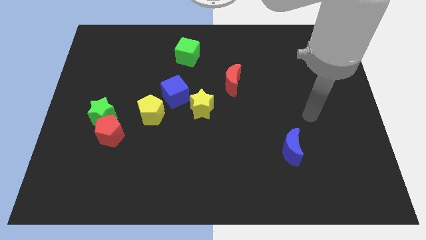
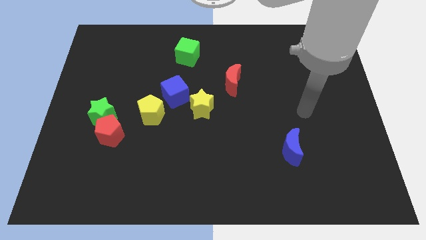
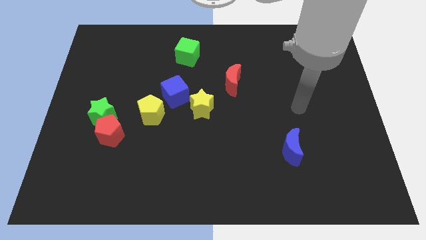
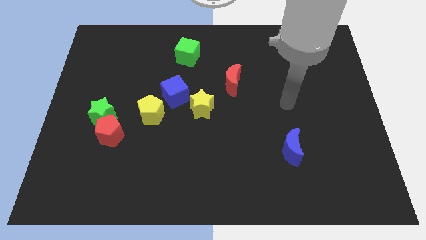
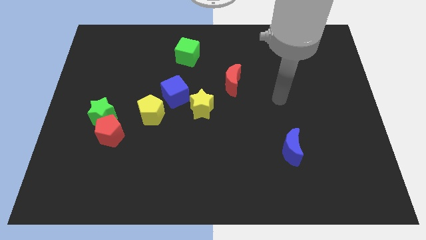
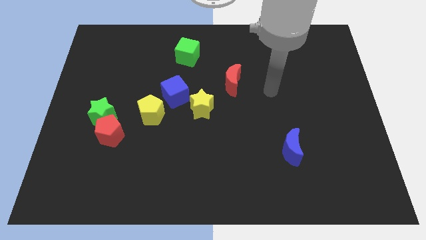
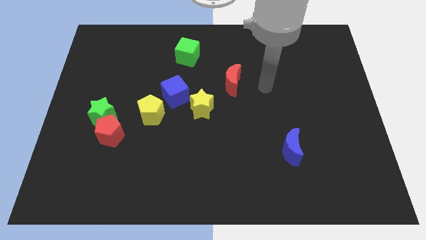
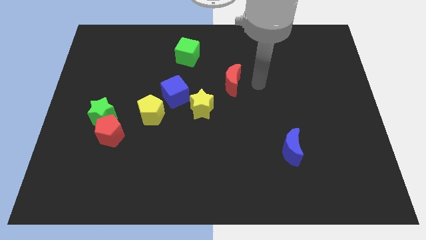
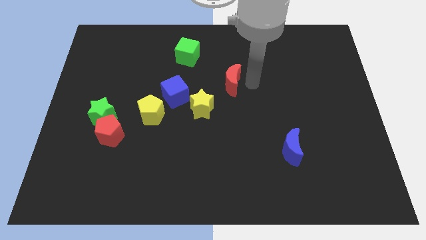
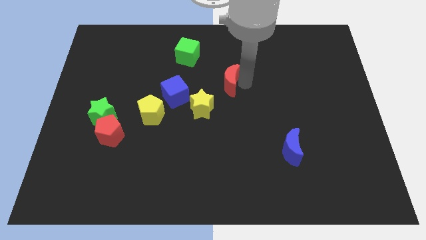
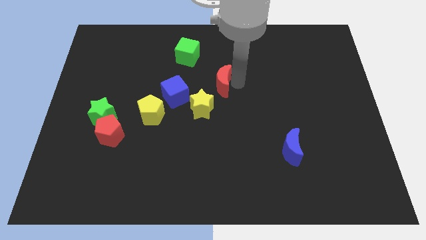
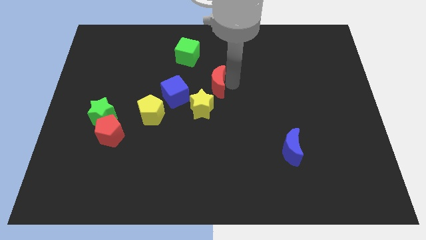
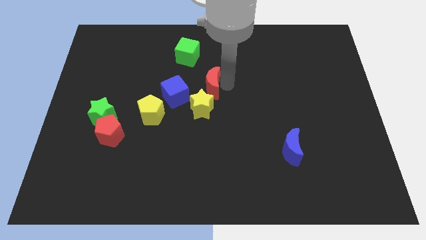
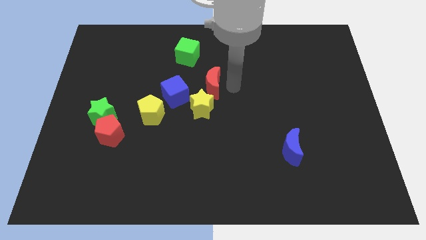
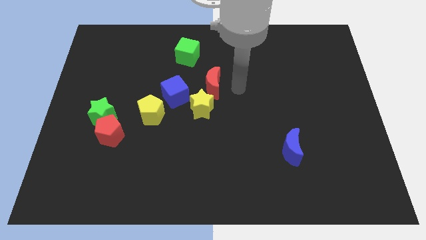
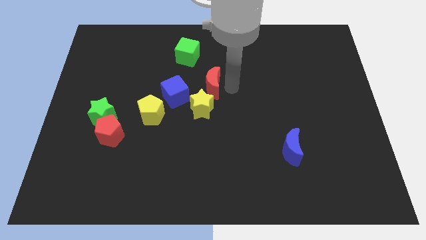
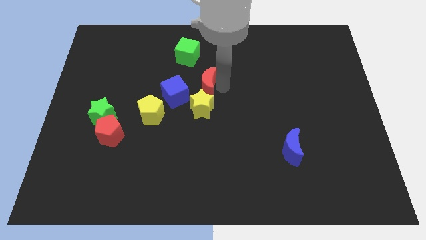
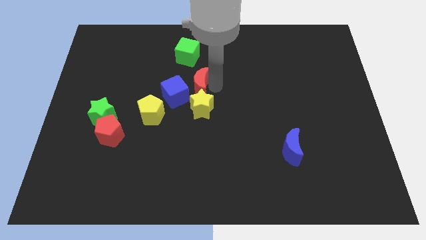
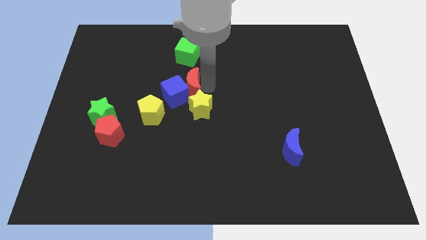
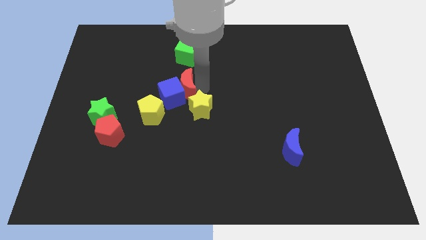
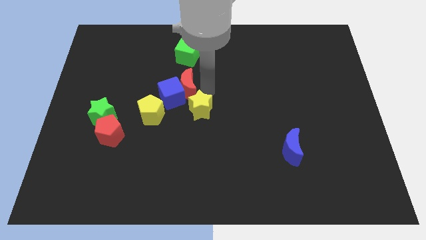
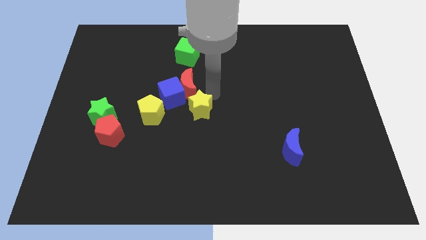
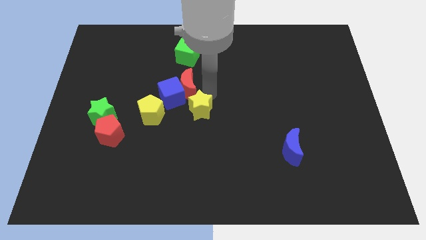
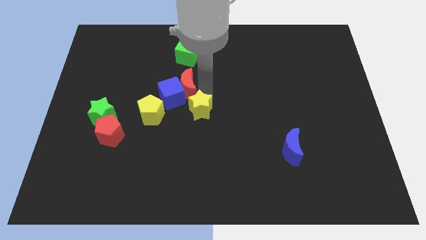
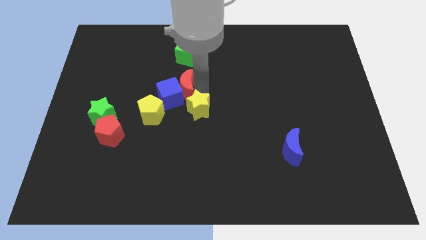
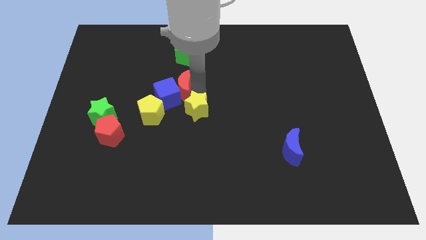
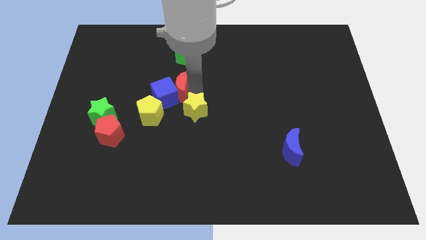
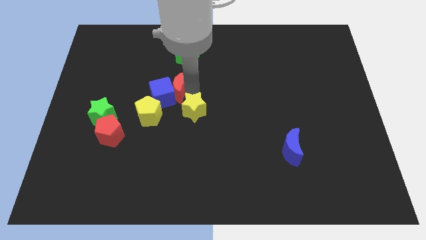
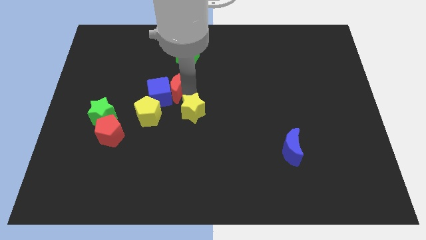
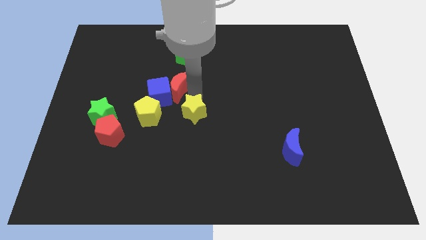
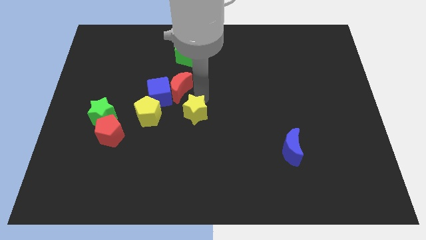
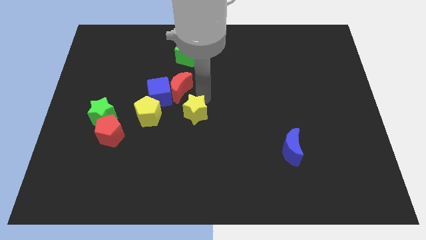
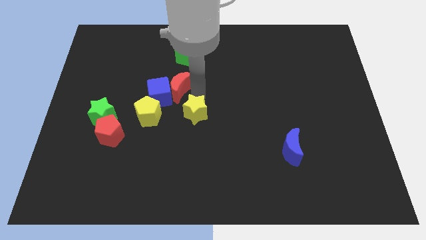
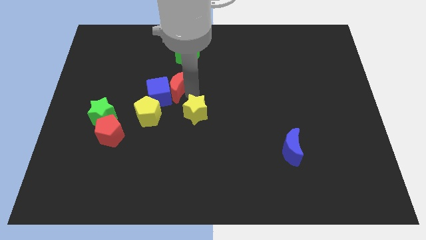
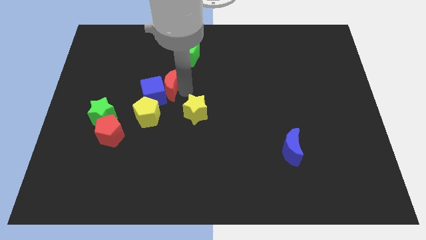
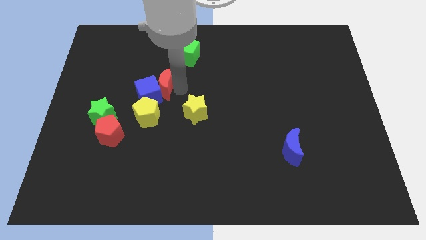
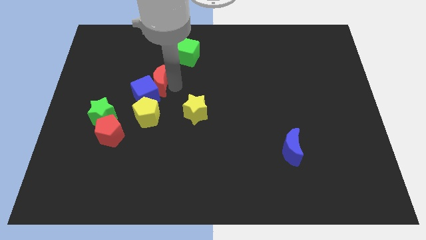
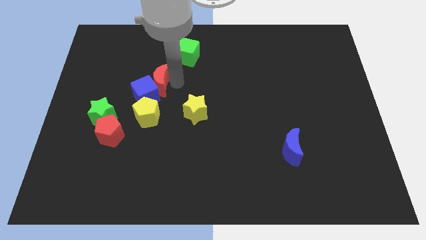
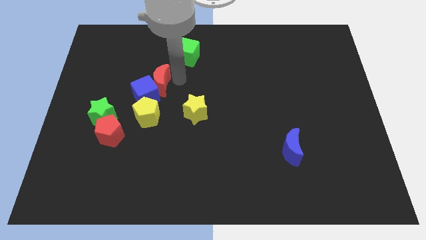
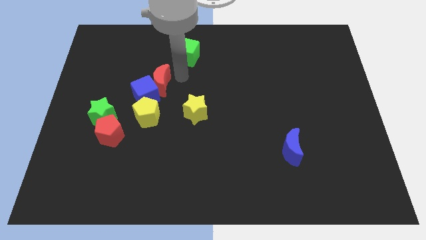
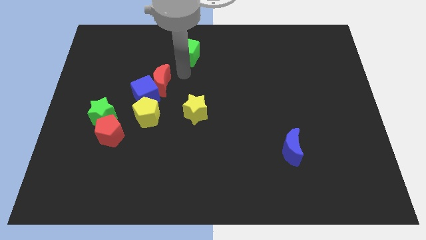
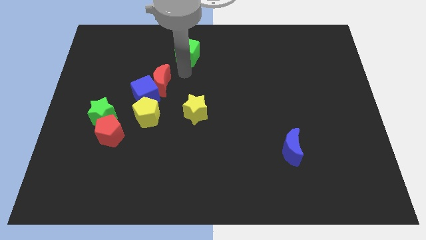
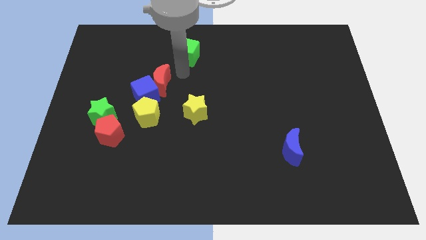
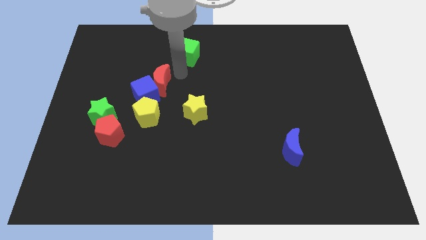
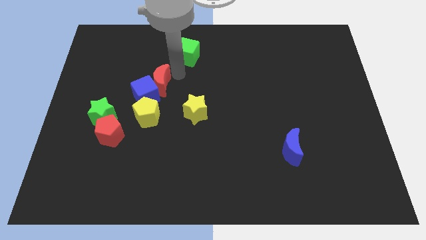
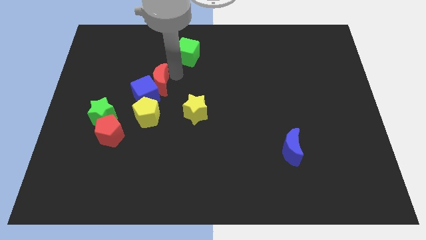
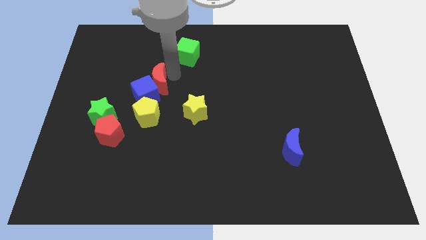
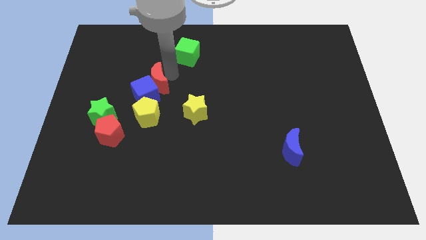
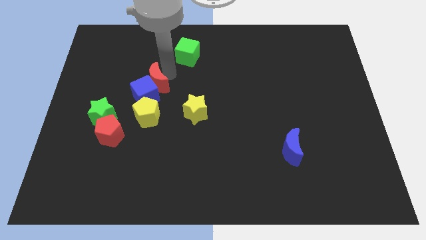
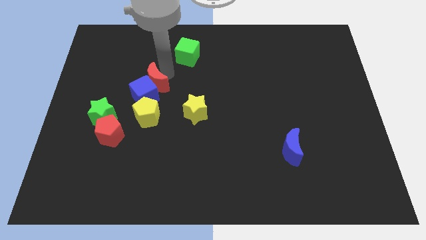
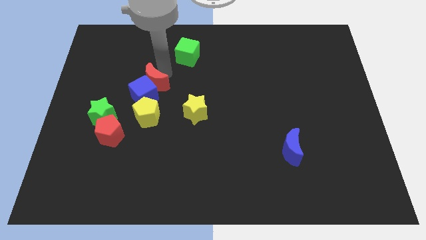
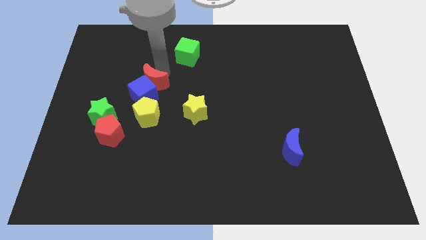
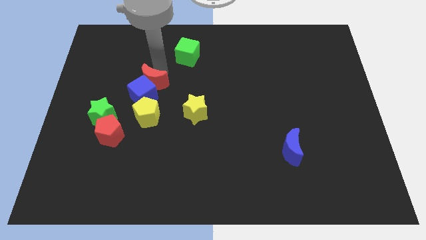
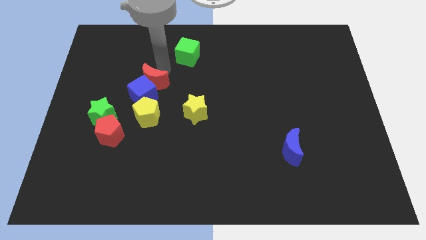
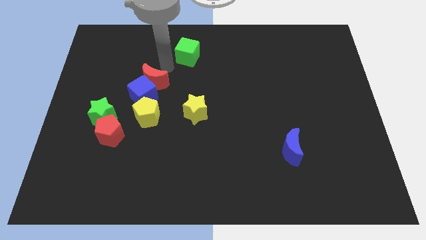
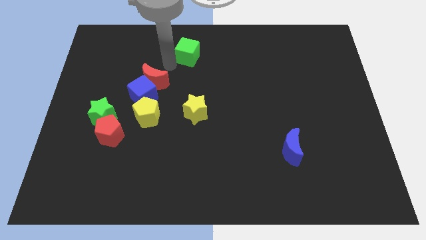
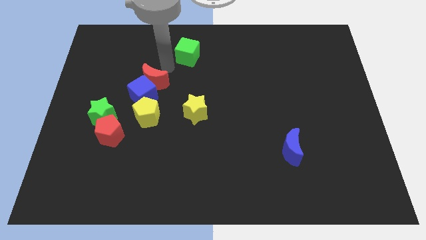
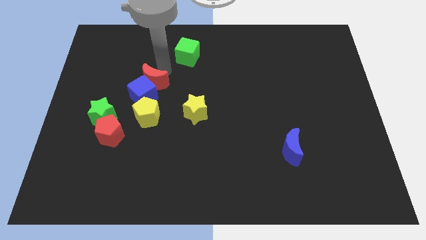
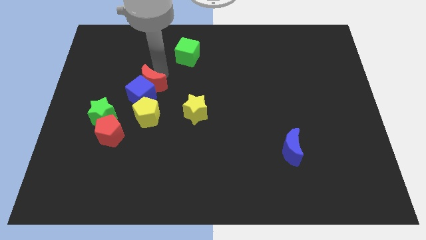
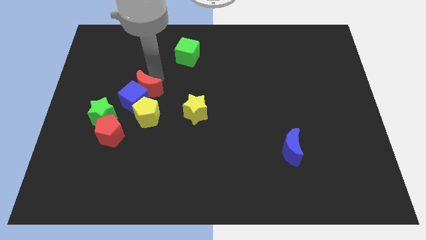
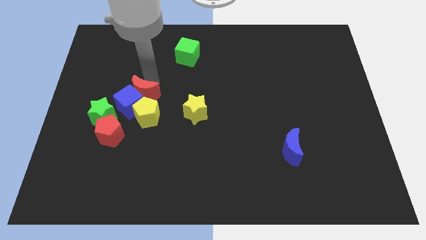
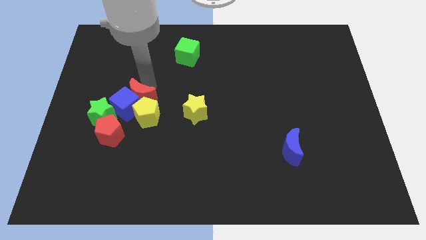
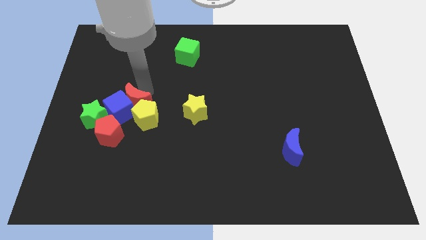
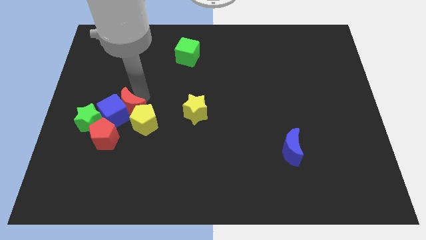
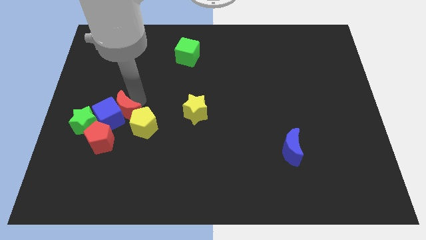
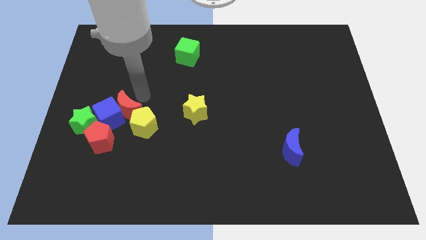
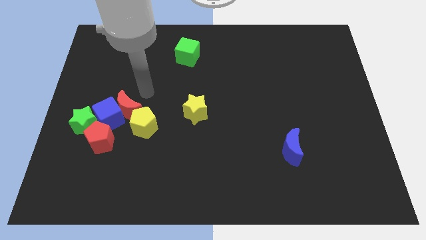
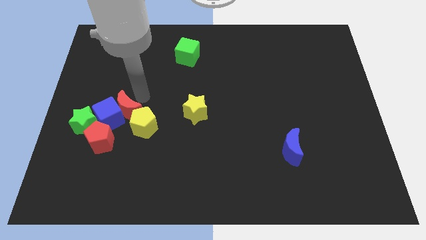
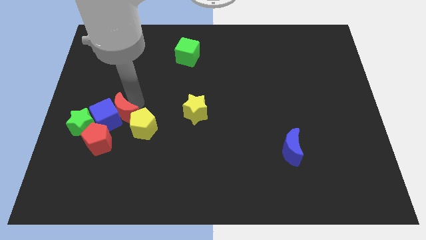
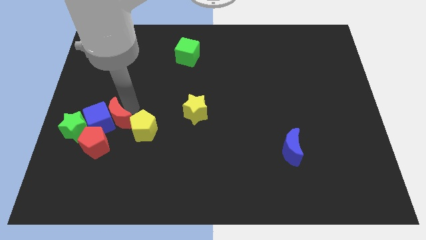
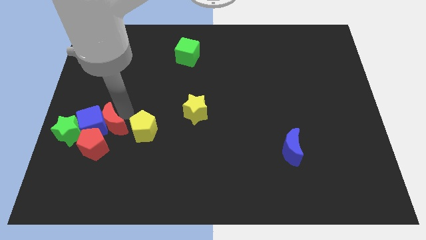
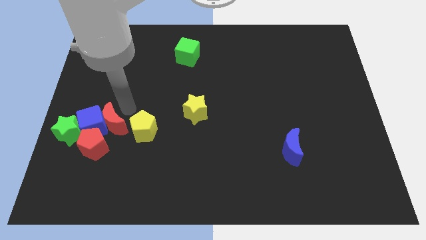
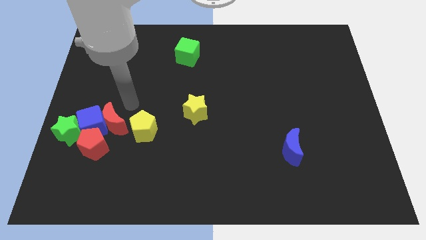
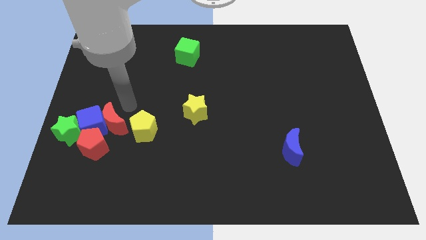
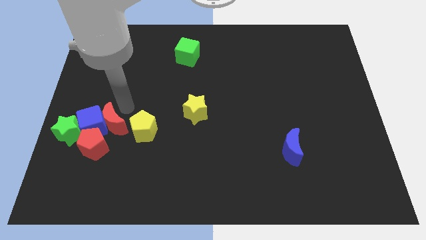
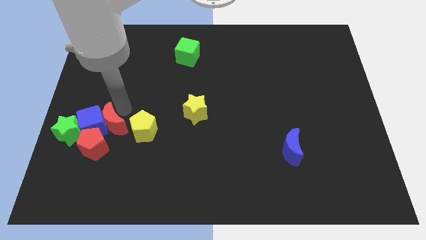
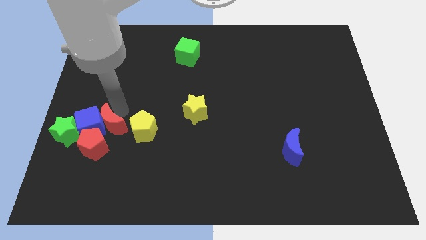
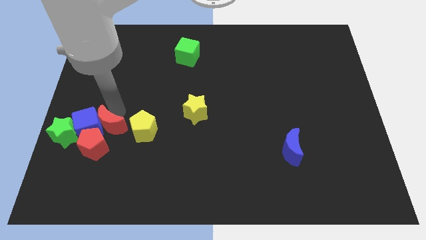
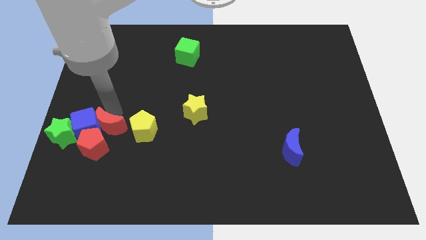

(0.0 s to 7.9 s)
slide the red moon to the red pentagon
